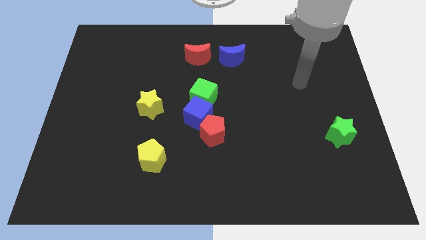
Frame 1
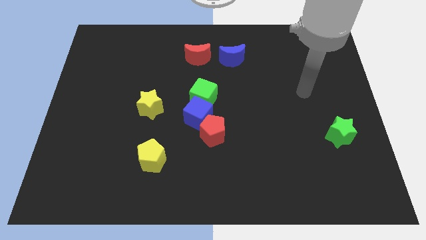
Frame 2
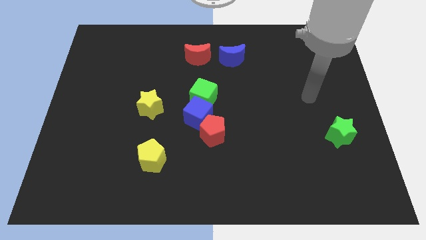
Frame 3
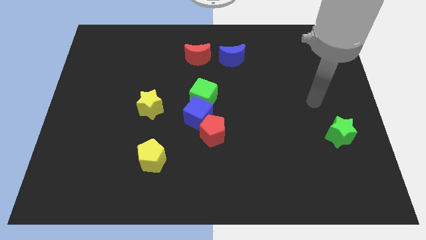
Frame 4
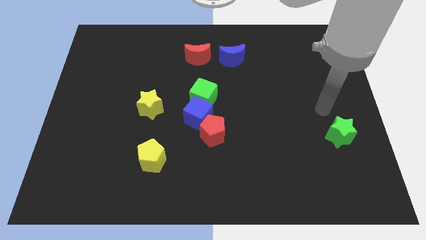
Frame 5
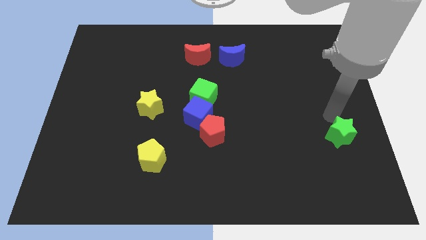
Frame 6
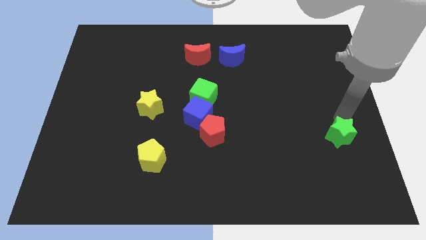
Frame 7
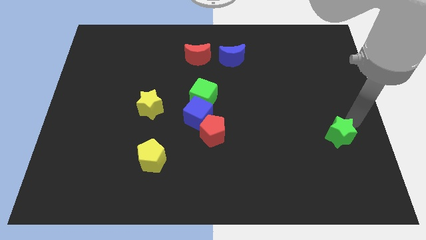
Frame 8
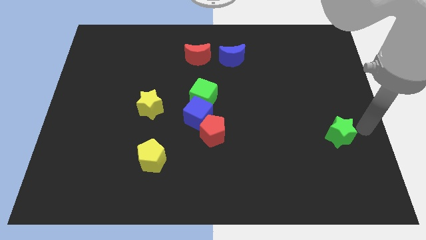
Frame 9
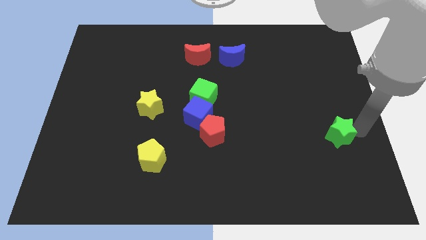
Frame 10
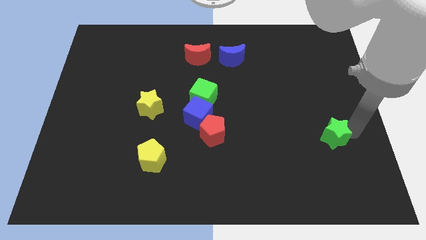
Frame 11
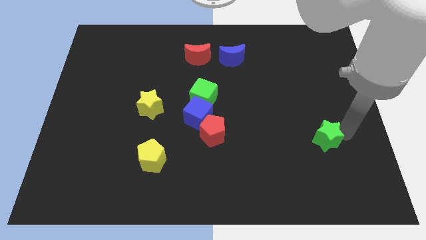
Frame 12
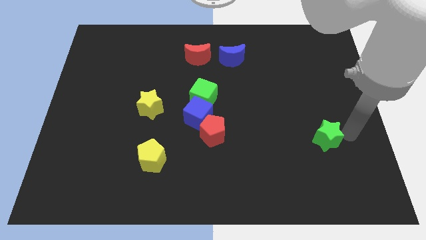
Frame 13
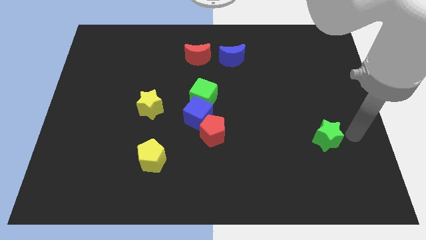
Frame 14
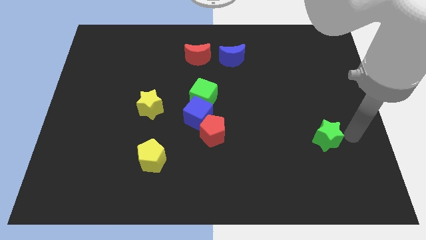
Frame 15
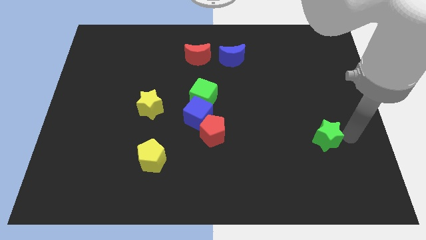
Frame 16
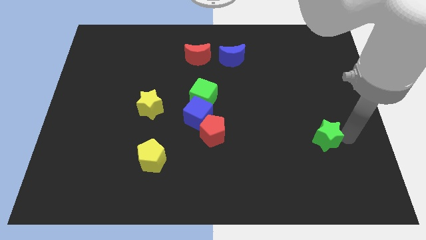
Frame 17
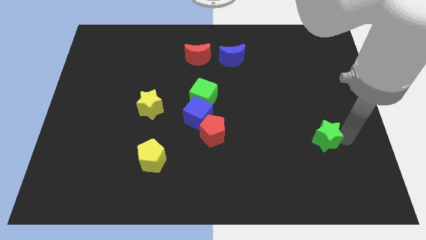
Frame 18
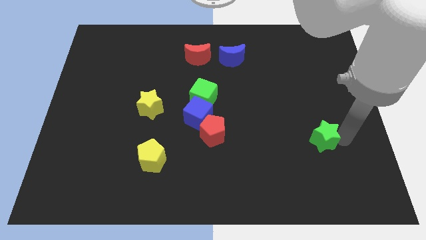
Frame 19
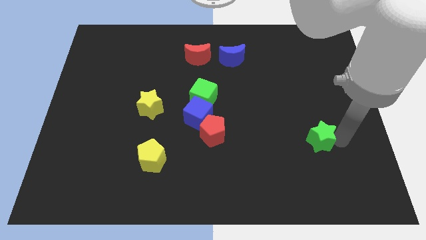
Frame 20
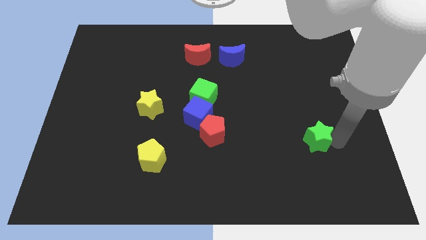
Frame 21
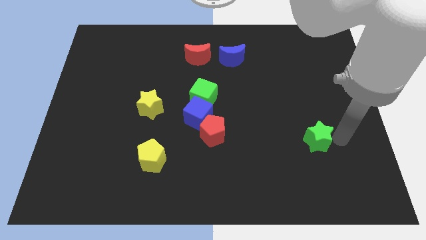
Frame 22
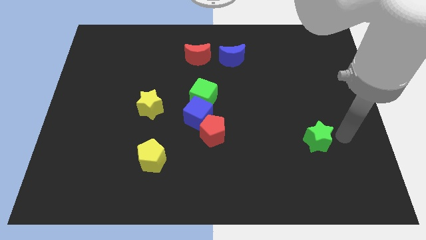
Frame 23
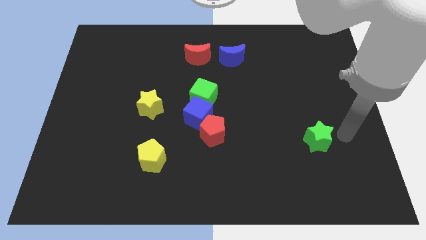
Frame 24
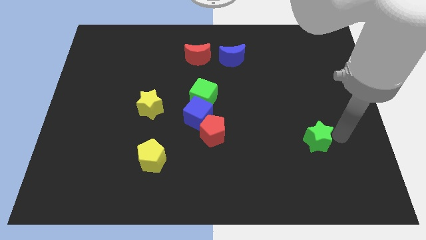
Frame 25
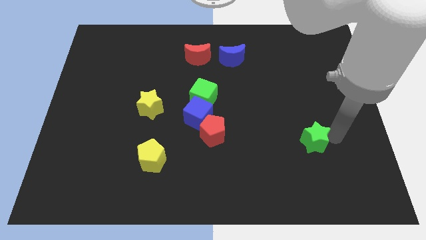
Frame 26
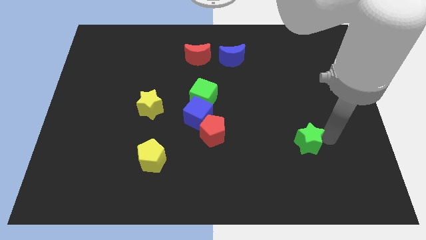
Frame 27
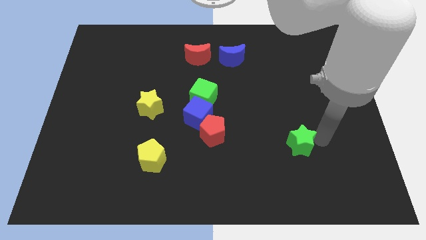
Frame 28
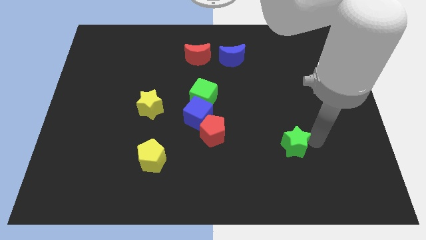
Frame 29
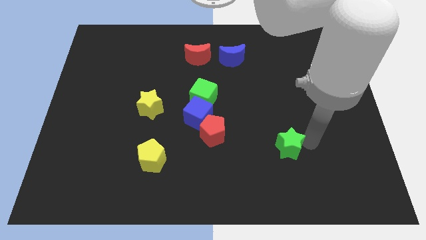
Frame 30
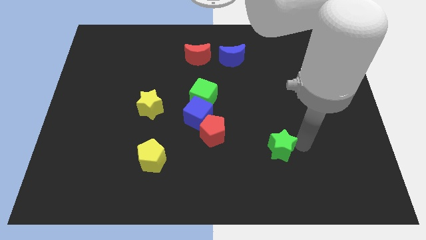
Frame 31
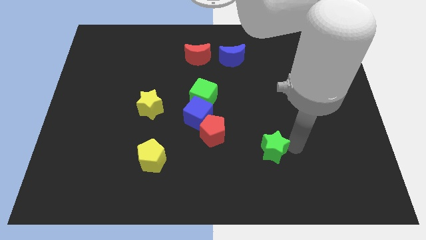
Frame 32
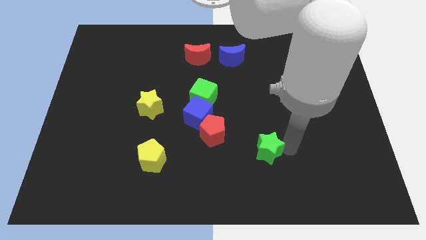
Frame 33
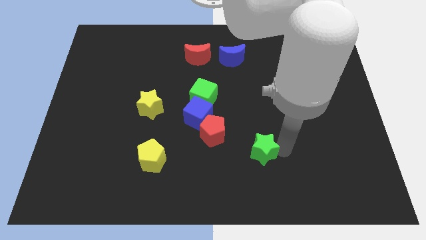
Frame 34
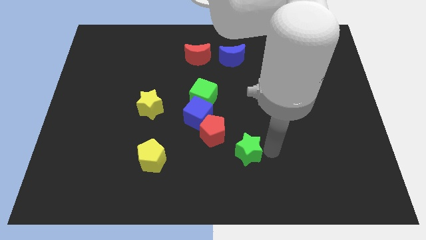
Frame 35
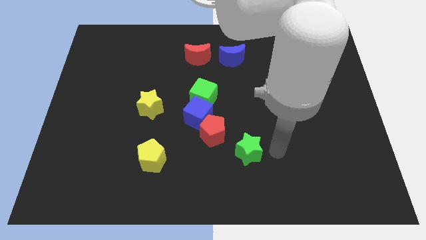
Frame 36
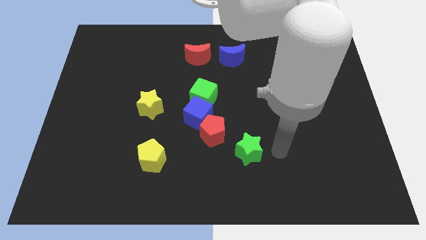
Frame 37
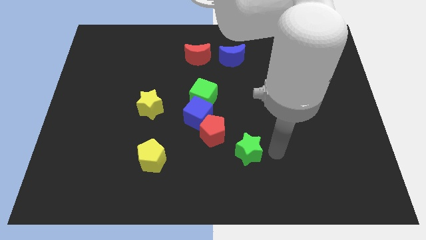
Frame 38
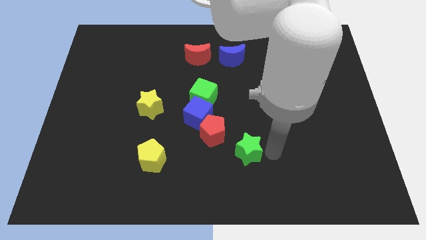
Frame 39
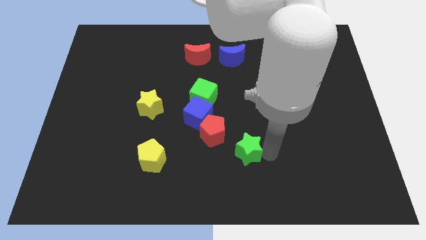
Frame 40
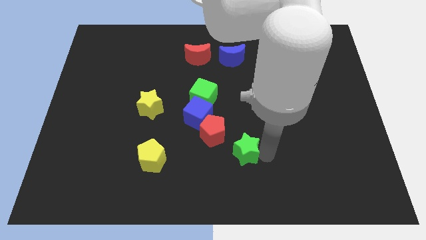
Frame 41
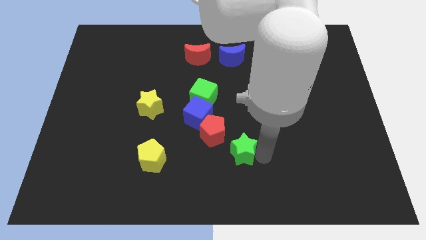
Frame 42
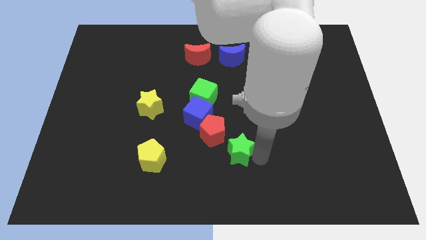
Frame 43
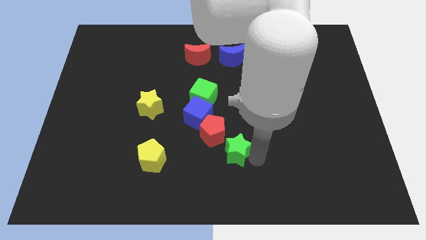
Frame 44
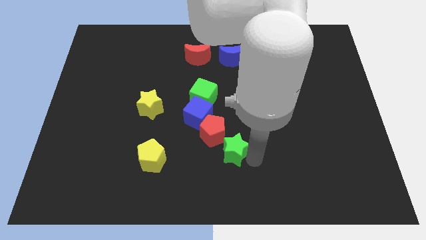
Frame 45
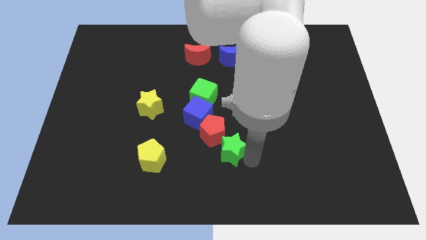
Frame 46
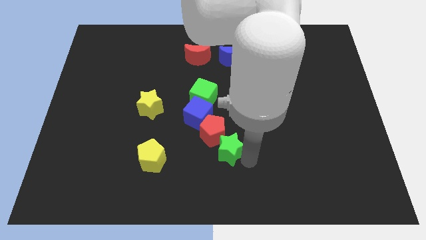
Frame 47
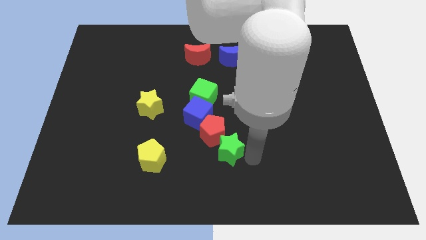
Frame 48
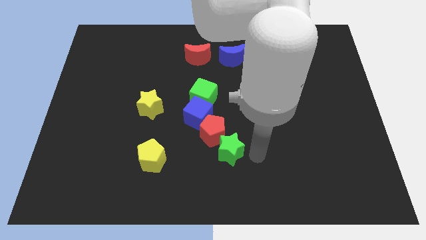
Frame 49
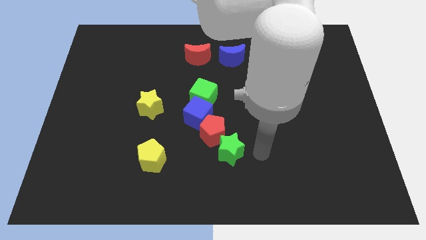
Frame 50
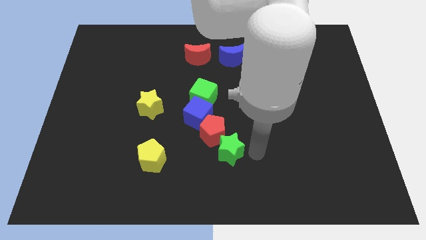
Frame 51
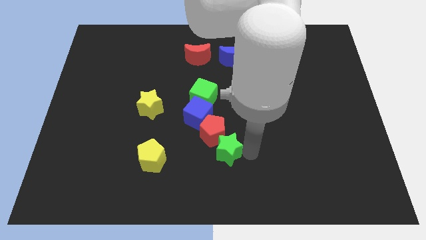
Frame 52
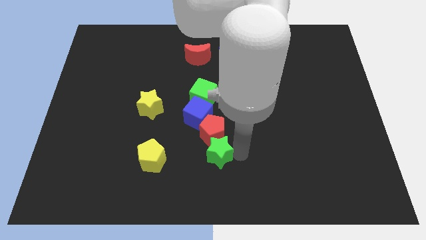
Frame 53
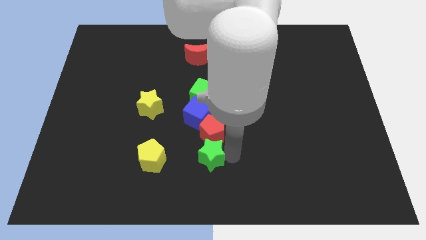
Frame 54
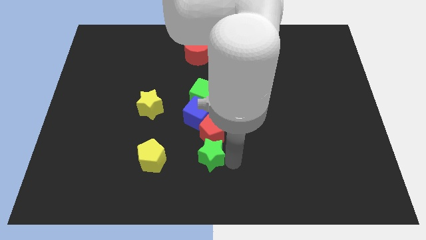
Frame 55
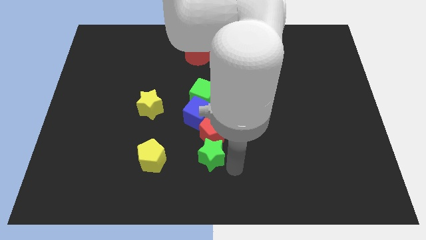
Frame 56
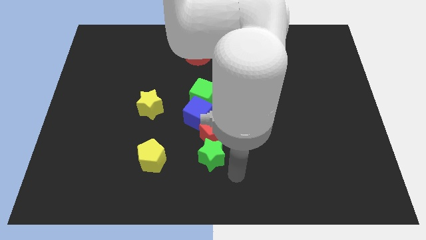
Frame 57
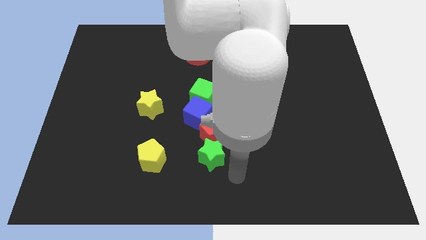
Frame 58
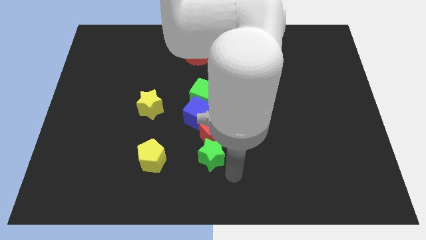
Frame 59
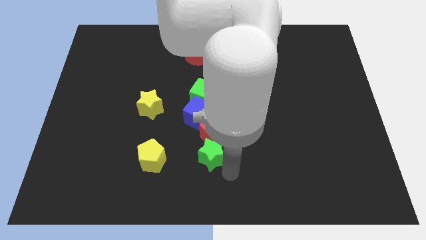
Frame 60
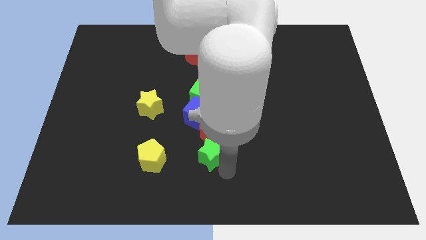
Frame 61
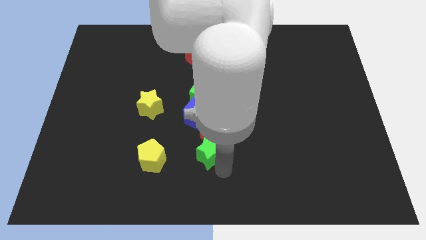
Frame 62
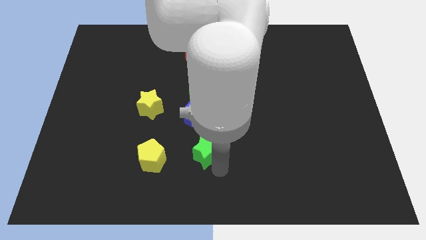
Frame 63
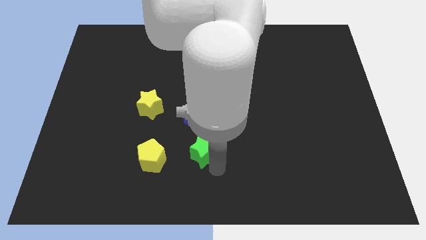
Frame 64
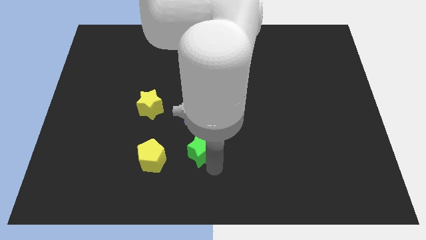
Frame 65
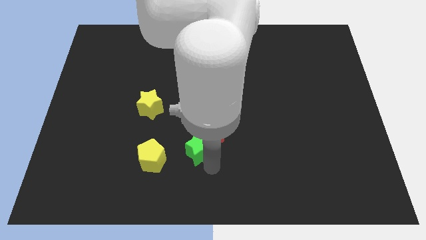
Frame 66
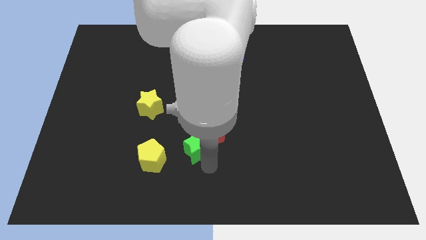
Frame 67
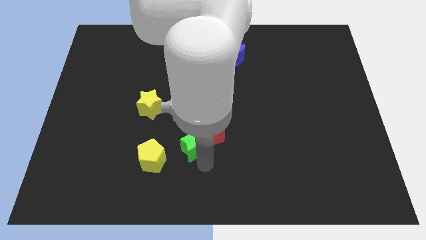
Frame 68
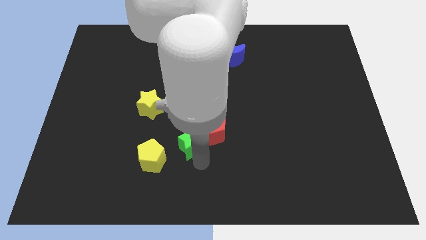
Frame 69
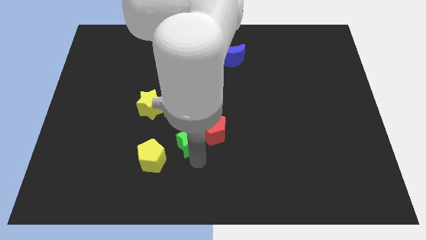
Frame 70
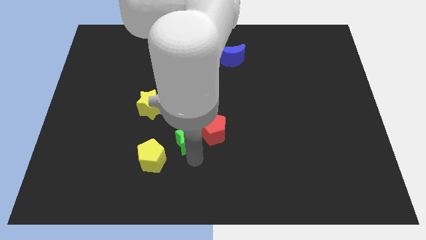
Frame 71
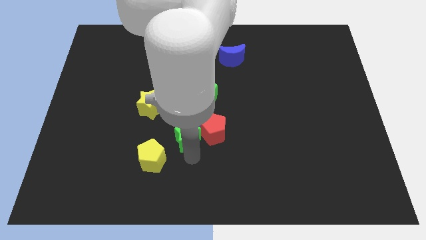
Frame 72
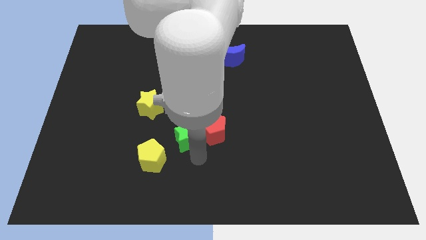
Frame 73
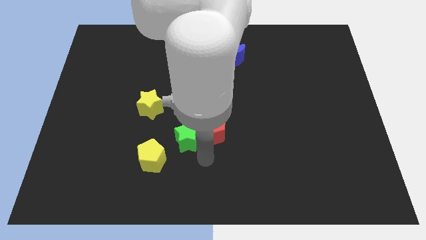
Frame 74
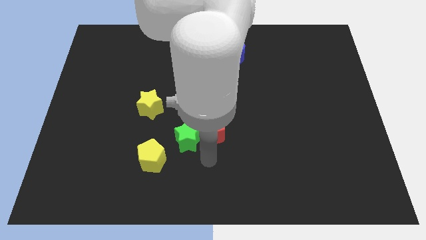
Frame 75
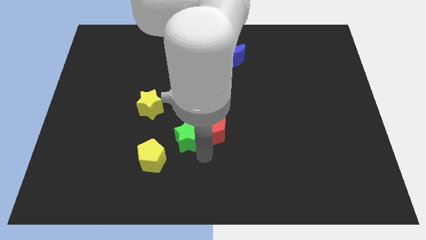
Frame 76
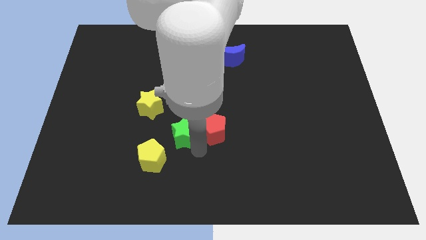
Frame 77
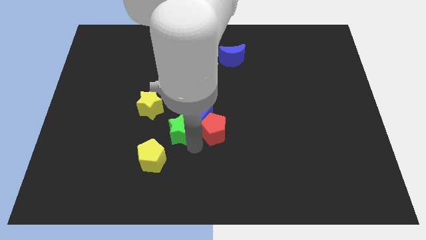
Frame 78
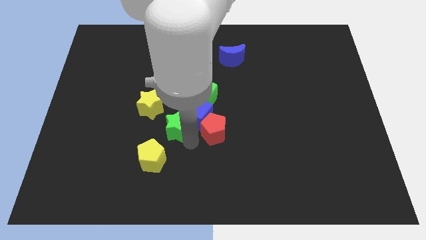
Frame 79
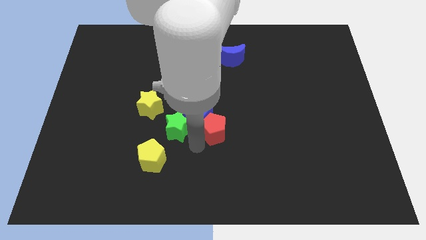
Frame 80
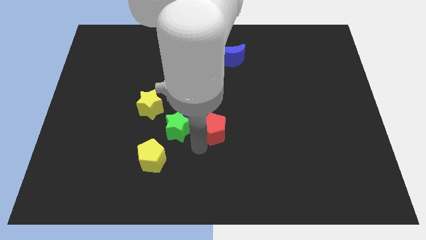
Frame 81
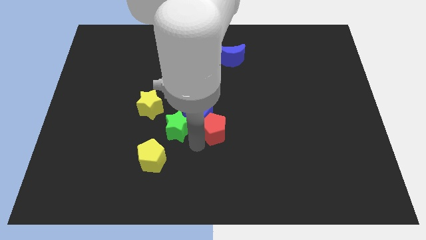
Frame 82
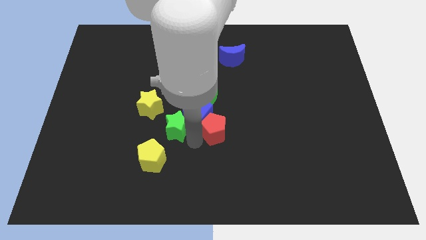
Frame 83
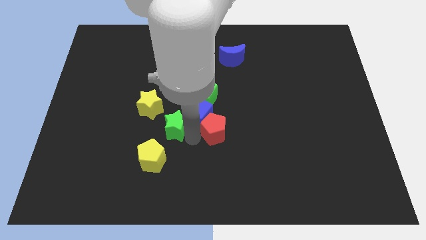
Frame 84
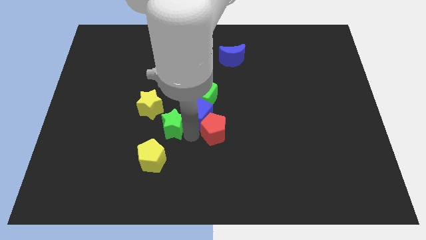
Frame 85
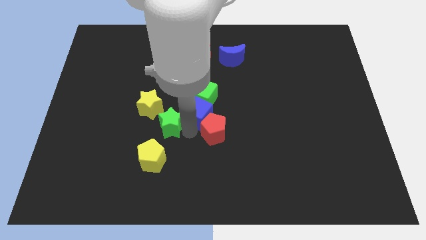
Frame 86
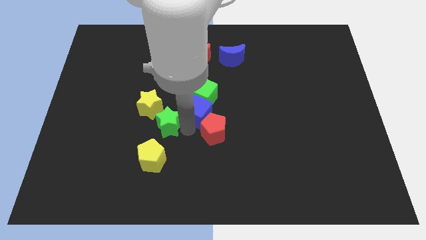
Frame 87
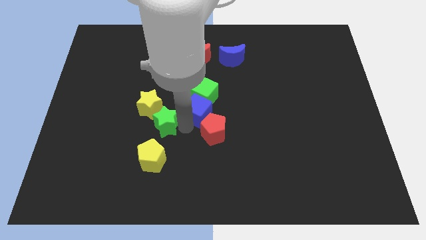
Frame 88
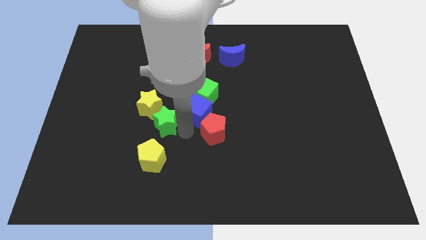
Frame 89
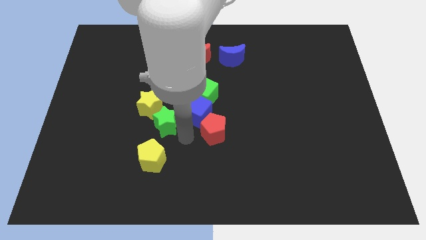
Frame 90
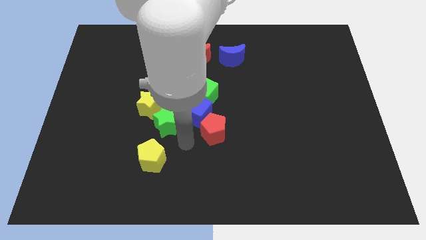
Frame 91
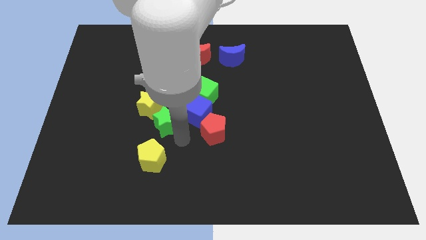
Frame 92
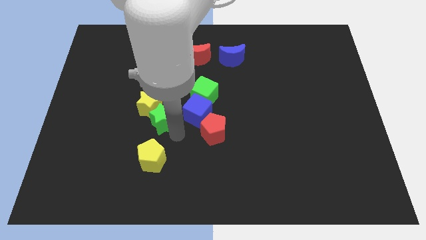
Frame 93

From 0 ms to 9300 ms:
put the green star next to the yellow star
